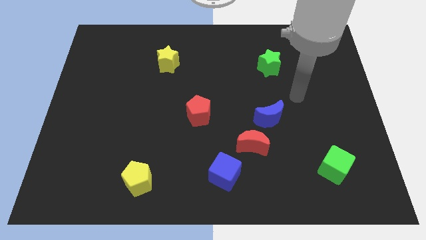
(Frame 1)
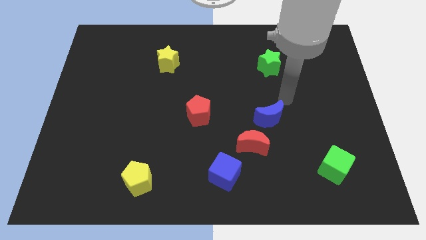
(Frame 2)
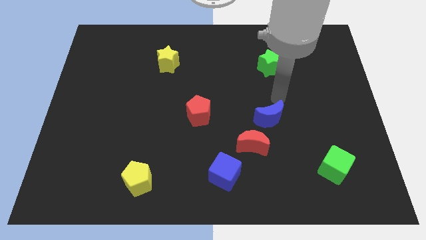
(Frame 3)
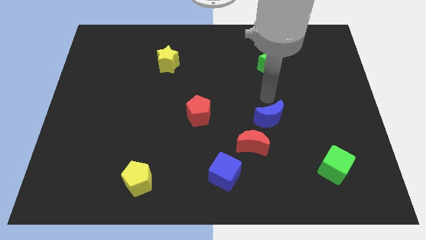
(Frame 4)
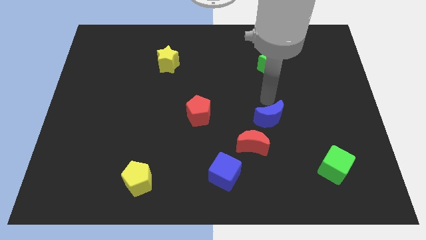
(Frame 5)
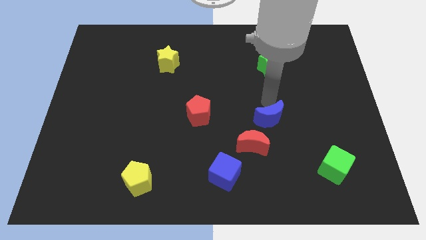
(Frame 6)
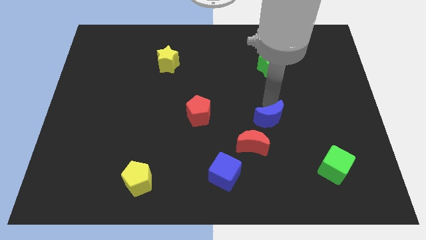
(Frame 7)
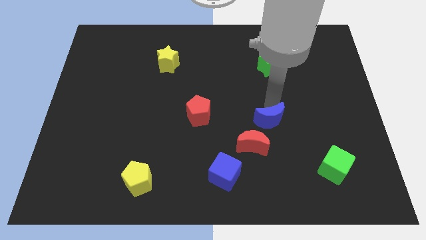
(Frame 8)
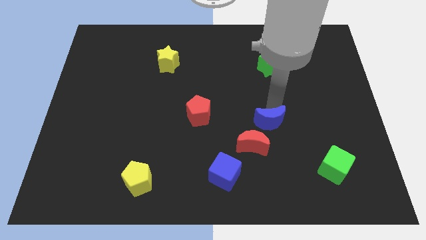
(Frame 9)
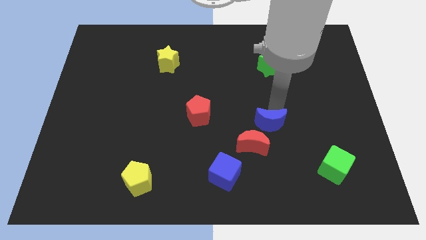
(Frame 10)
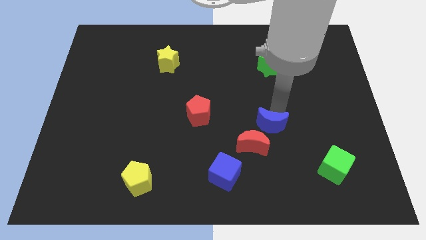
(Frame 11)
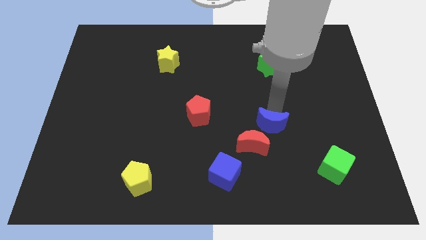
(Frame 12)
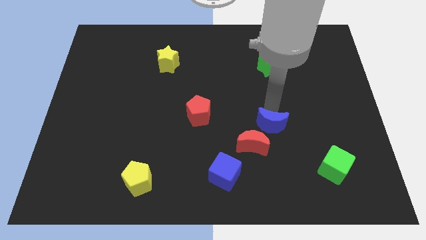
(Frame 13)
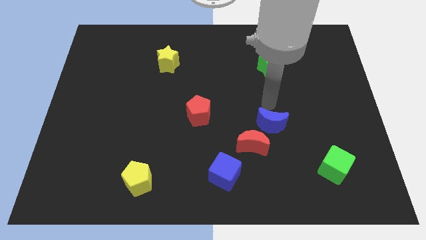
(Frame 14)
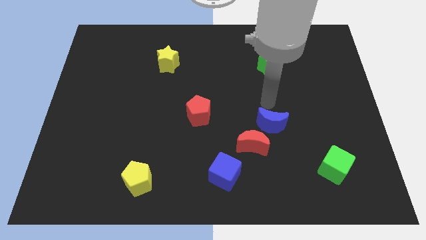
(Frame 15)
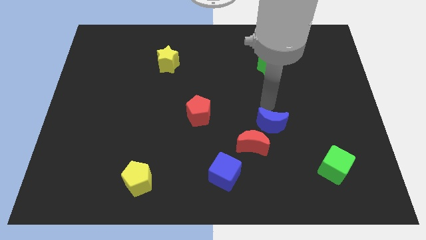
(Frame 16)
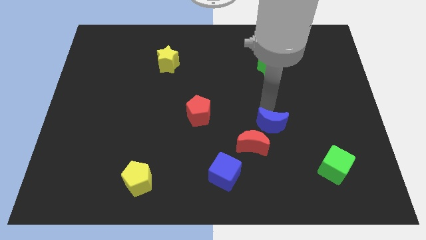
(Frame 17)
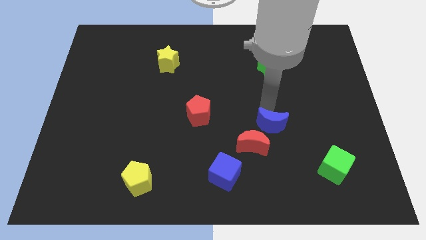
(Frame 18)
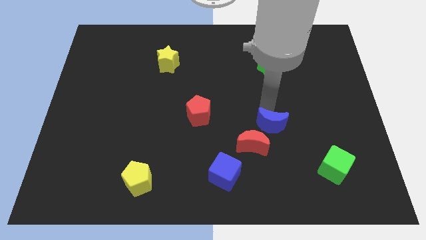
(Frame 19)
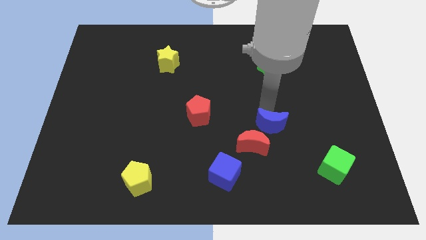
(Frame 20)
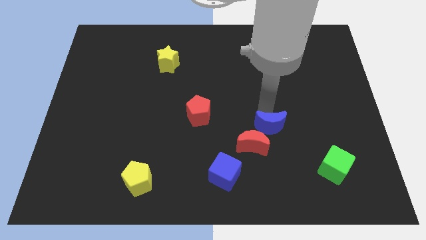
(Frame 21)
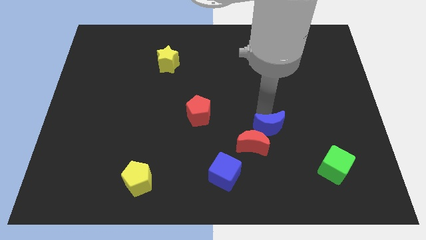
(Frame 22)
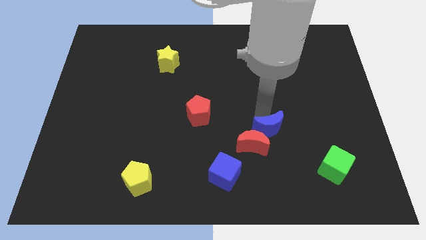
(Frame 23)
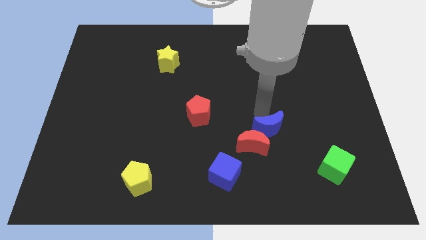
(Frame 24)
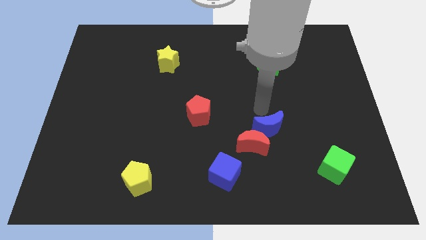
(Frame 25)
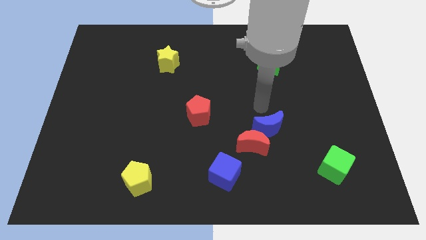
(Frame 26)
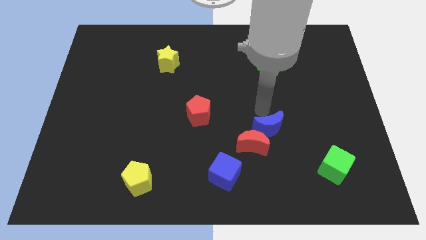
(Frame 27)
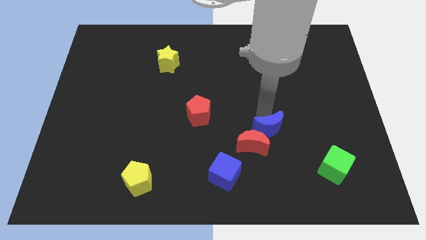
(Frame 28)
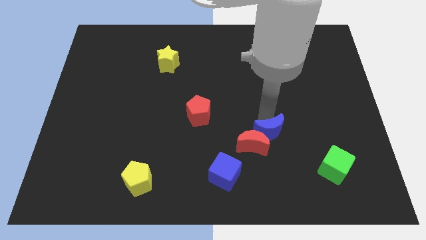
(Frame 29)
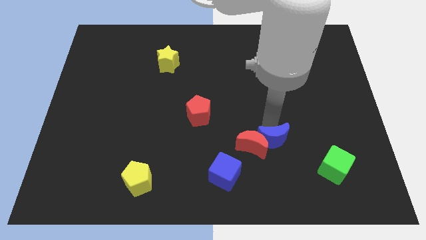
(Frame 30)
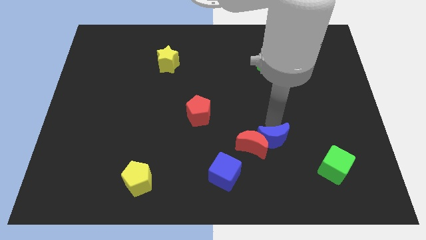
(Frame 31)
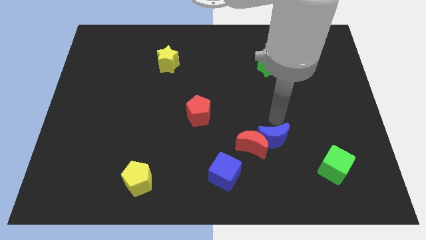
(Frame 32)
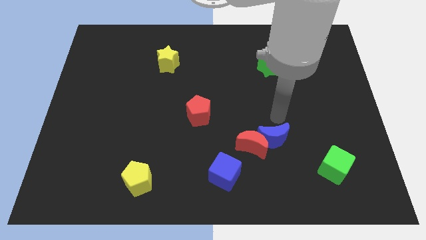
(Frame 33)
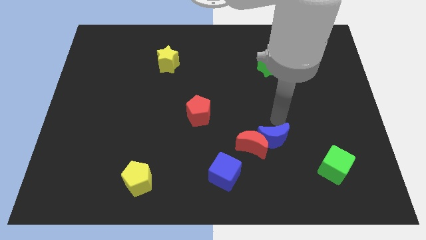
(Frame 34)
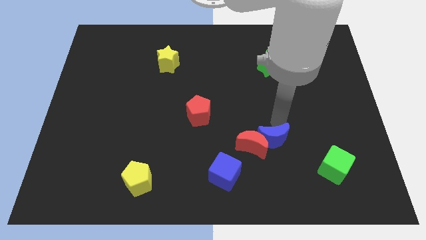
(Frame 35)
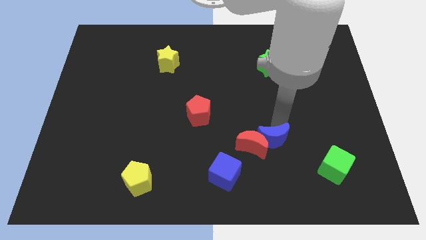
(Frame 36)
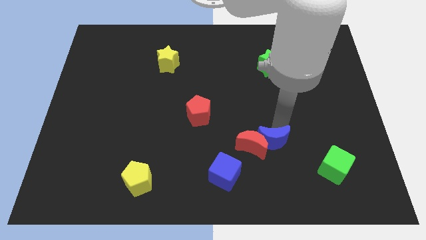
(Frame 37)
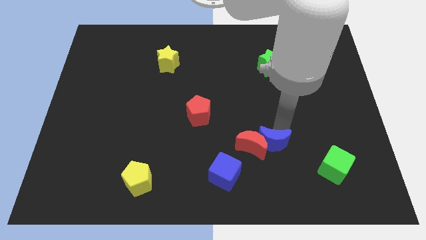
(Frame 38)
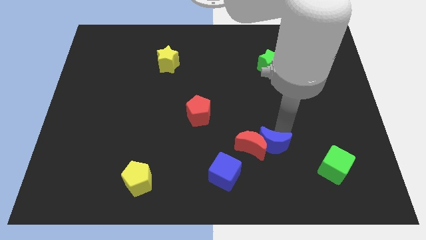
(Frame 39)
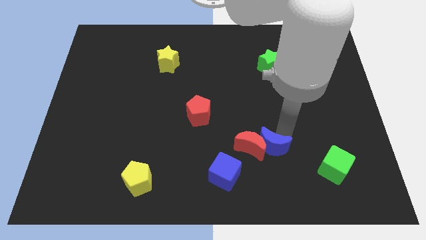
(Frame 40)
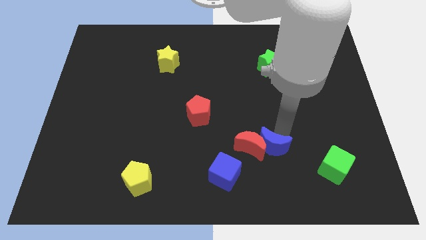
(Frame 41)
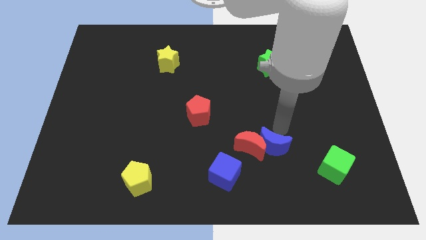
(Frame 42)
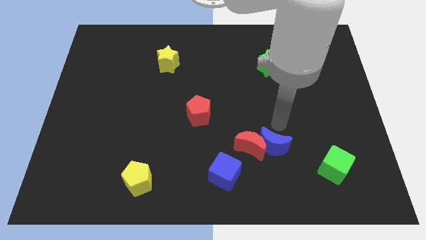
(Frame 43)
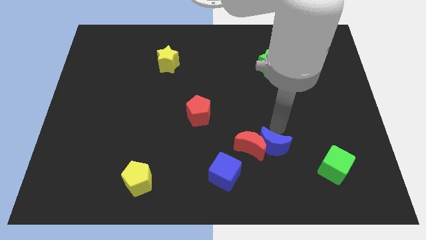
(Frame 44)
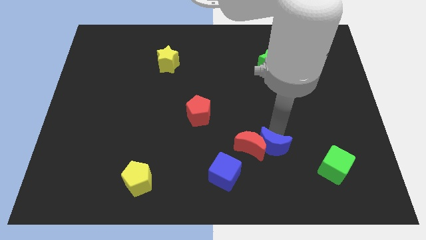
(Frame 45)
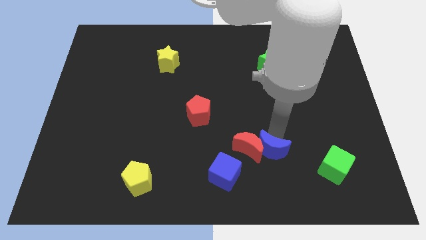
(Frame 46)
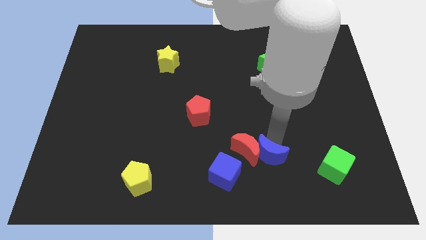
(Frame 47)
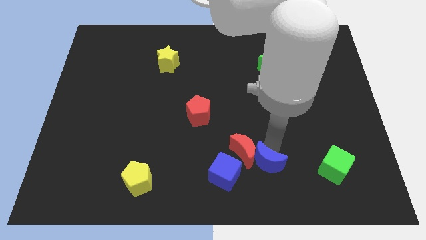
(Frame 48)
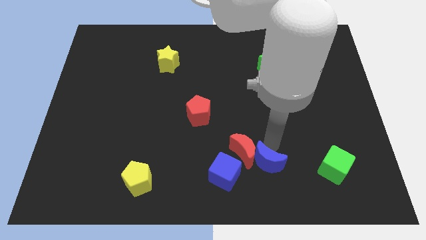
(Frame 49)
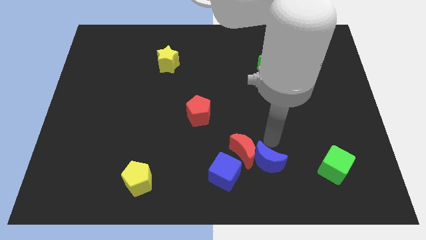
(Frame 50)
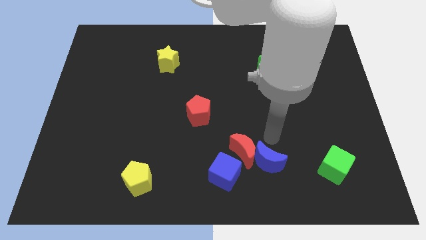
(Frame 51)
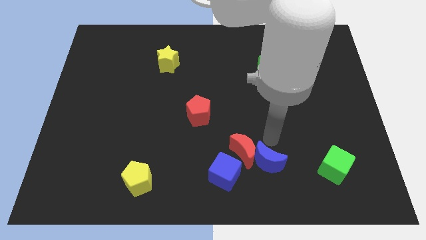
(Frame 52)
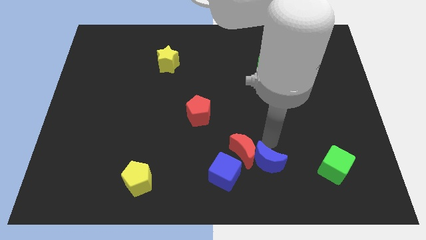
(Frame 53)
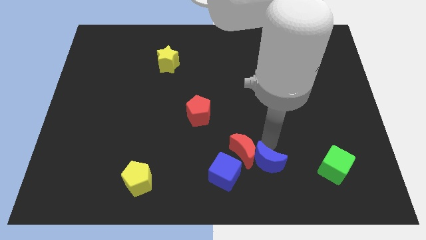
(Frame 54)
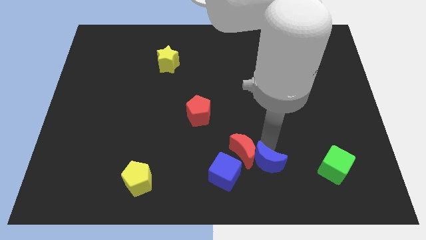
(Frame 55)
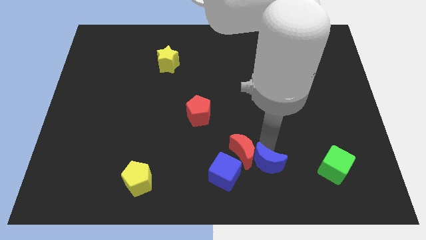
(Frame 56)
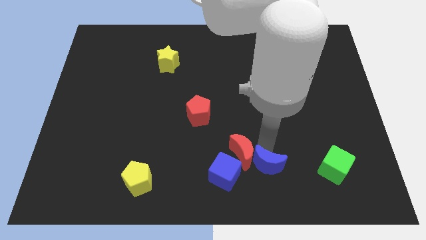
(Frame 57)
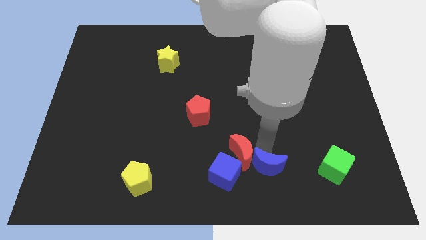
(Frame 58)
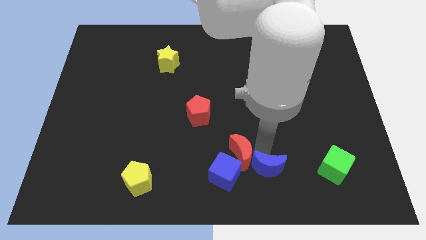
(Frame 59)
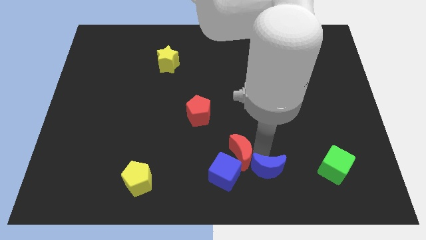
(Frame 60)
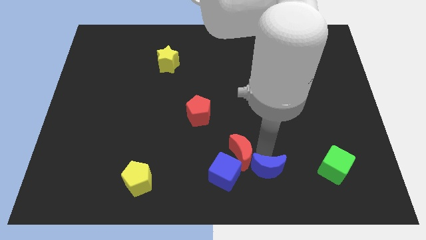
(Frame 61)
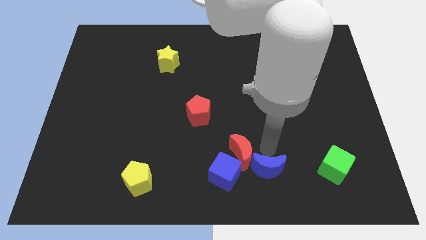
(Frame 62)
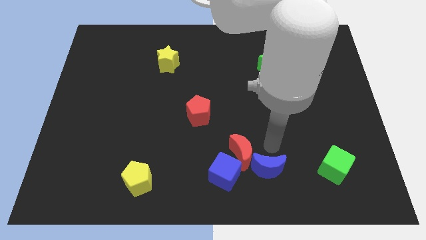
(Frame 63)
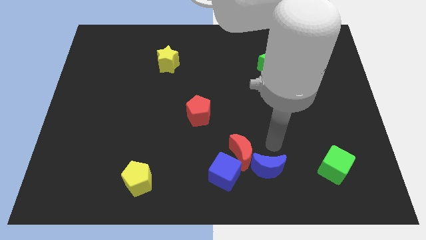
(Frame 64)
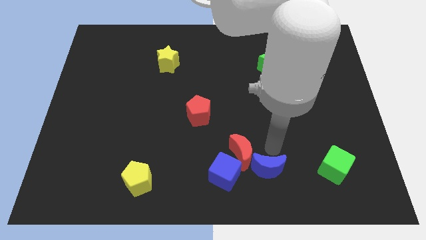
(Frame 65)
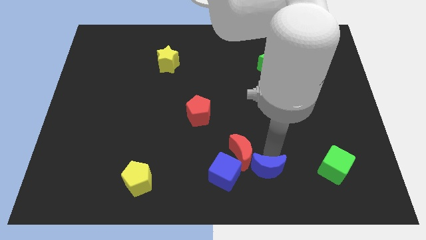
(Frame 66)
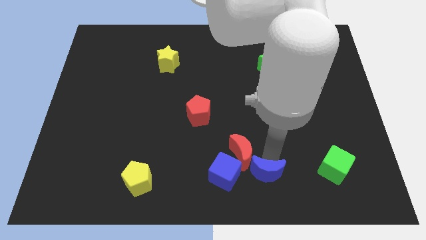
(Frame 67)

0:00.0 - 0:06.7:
move the blue moon to the bottom

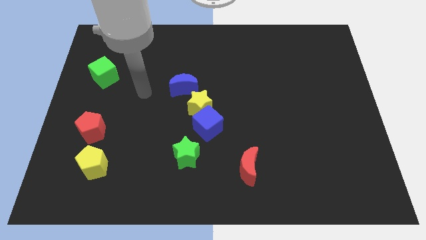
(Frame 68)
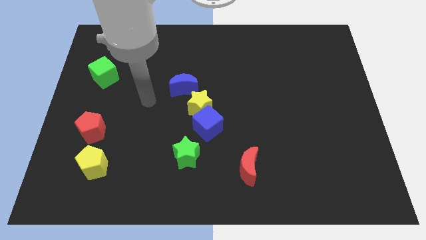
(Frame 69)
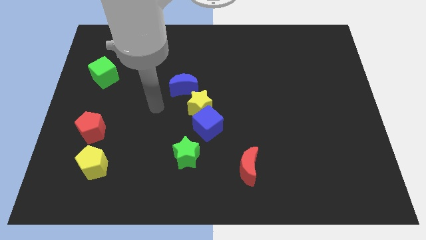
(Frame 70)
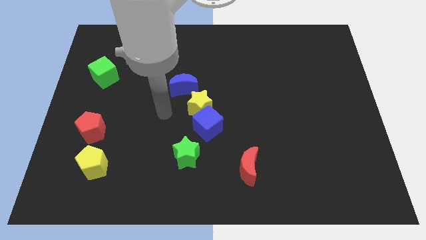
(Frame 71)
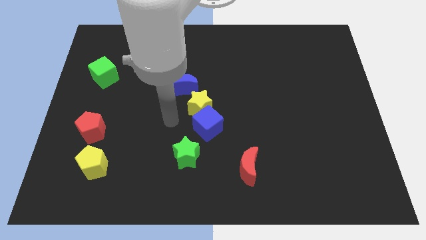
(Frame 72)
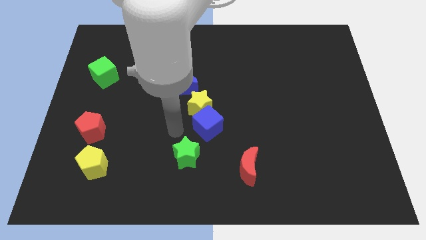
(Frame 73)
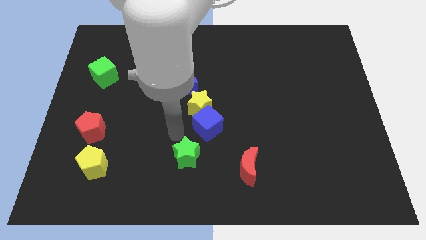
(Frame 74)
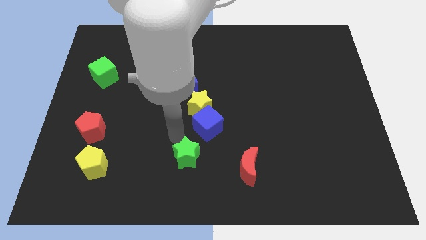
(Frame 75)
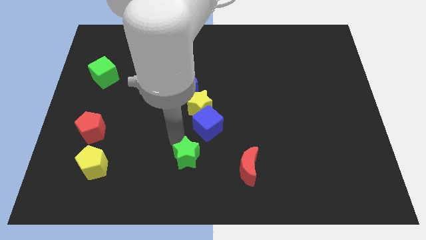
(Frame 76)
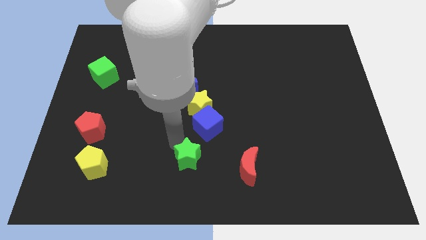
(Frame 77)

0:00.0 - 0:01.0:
slide the green star to the bottom side
